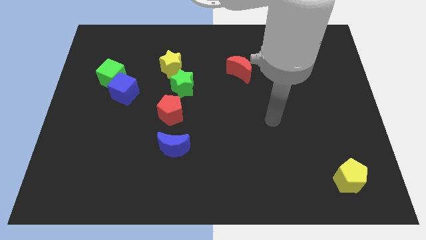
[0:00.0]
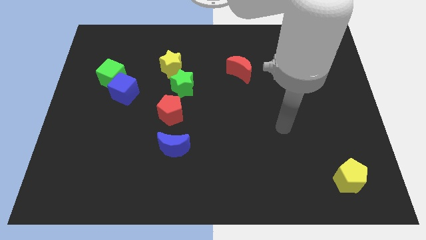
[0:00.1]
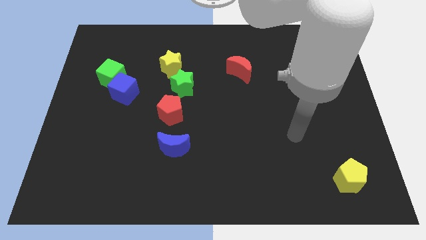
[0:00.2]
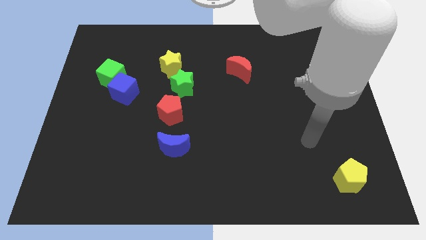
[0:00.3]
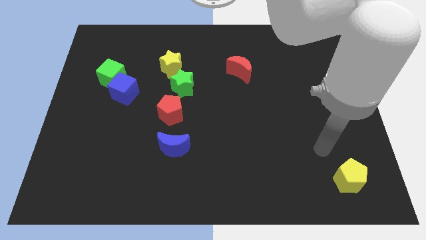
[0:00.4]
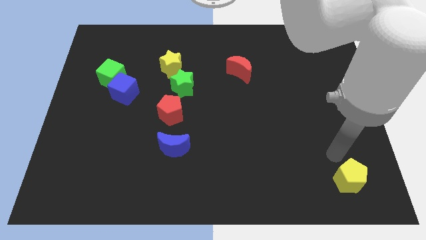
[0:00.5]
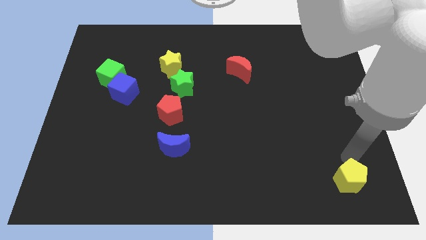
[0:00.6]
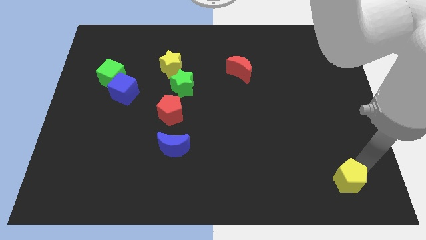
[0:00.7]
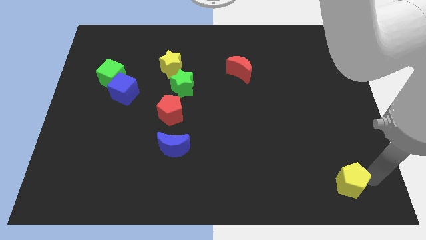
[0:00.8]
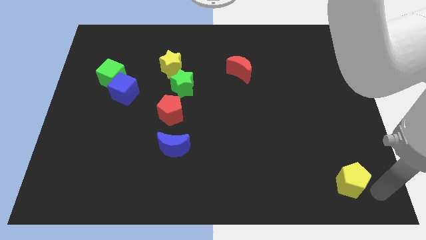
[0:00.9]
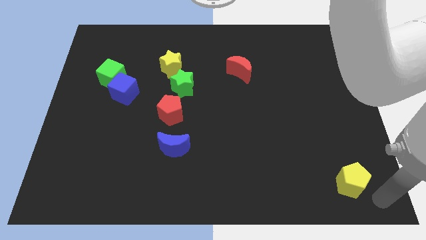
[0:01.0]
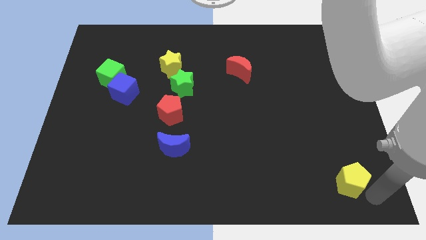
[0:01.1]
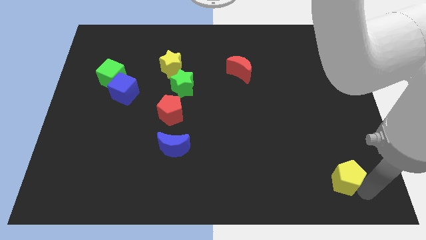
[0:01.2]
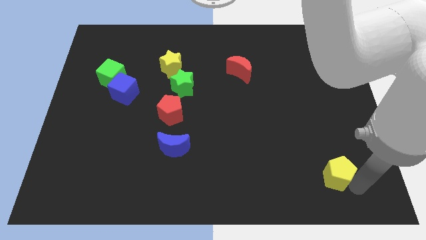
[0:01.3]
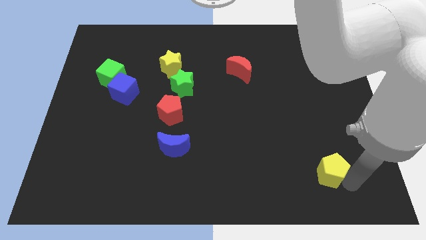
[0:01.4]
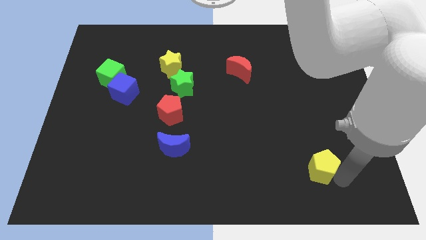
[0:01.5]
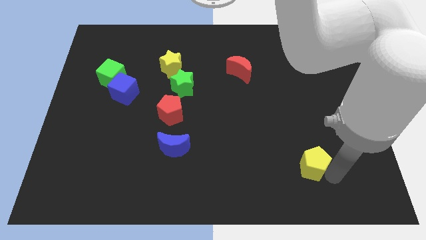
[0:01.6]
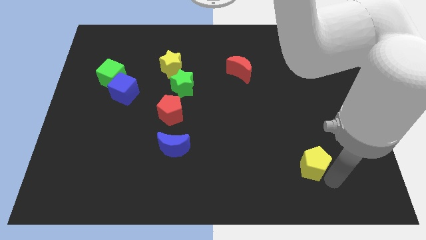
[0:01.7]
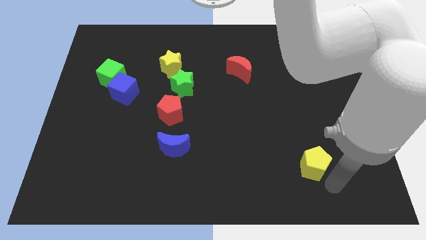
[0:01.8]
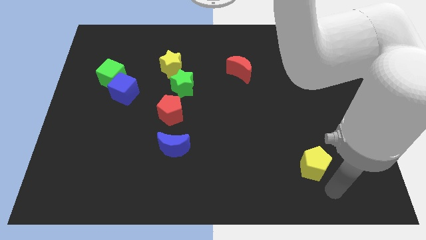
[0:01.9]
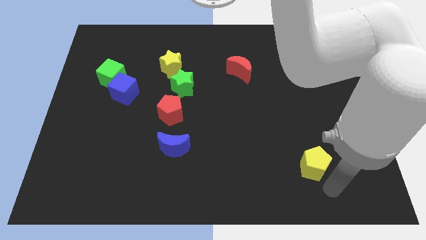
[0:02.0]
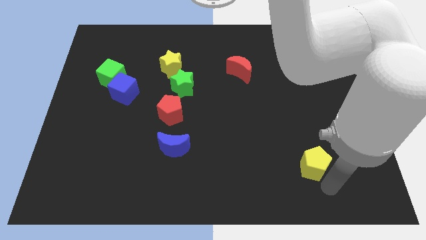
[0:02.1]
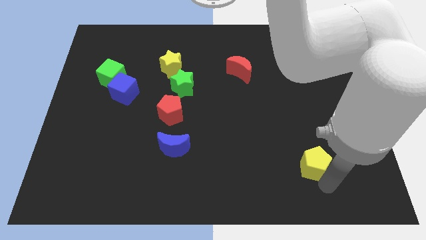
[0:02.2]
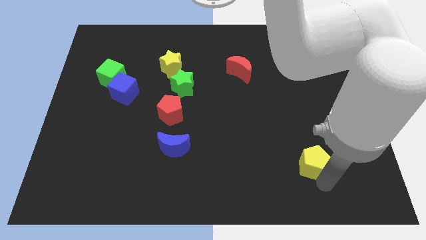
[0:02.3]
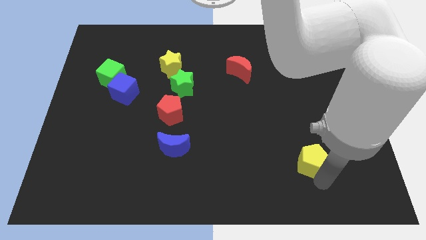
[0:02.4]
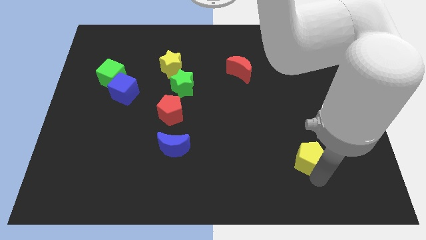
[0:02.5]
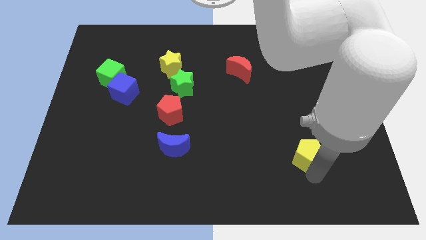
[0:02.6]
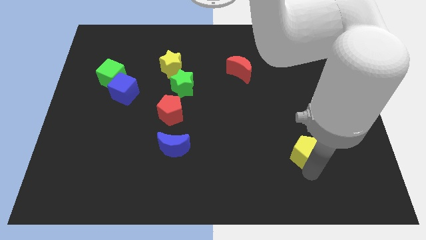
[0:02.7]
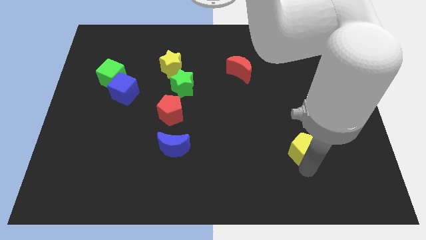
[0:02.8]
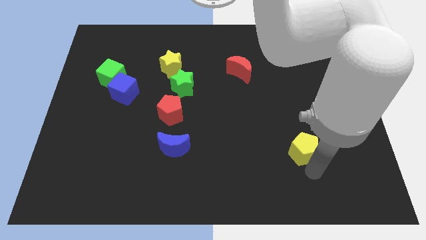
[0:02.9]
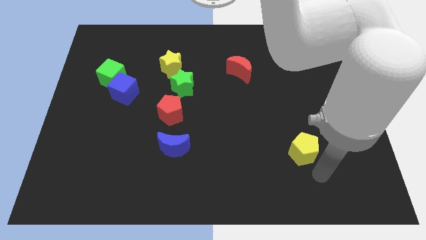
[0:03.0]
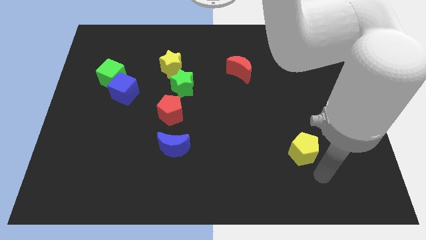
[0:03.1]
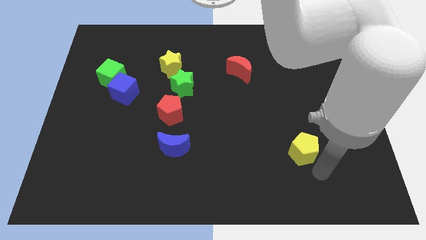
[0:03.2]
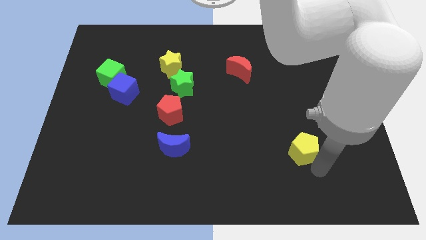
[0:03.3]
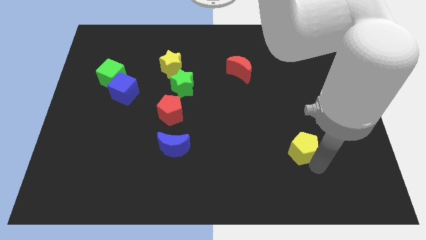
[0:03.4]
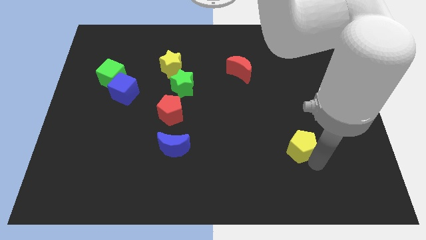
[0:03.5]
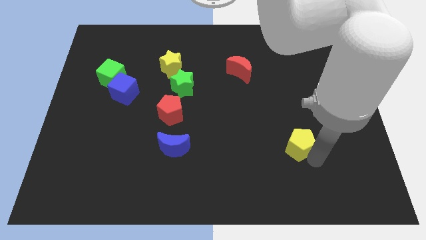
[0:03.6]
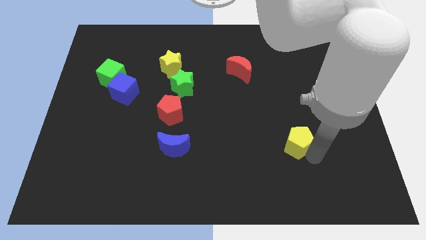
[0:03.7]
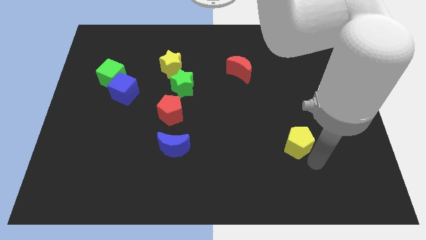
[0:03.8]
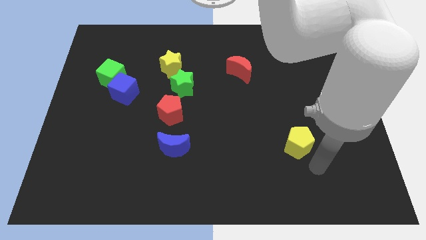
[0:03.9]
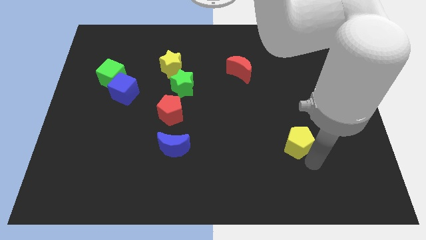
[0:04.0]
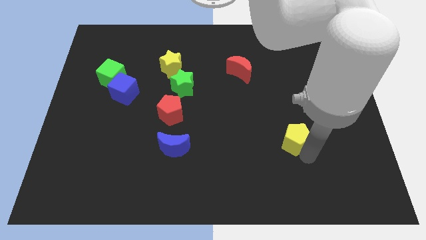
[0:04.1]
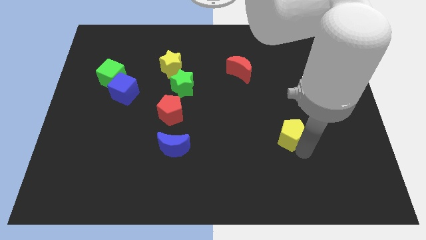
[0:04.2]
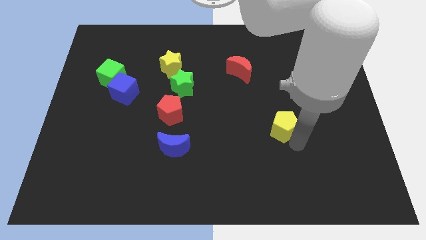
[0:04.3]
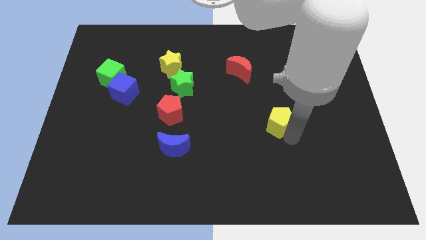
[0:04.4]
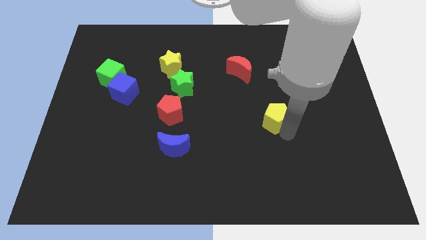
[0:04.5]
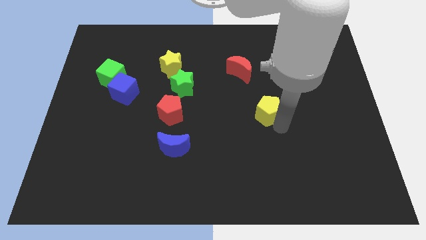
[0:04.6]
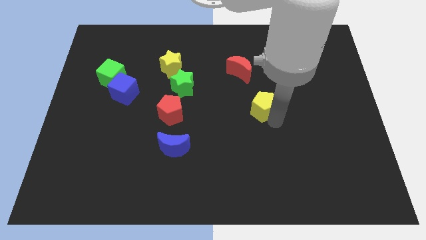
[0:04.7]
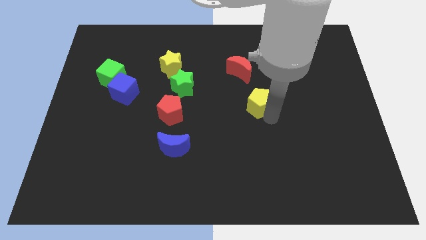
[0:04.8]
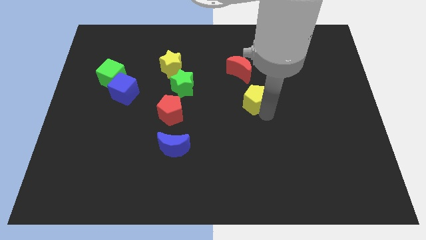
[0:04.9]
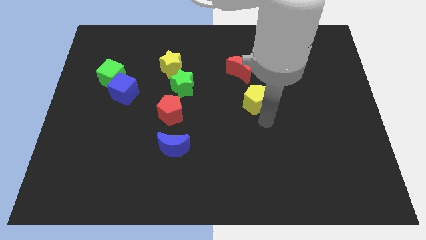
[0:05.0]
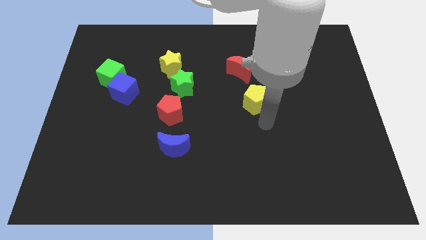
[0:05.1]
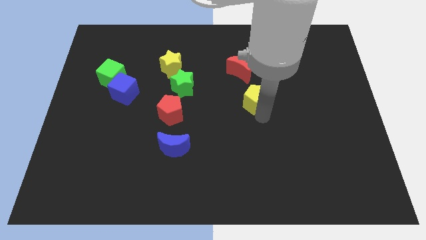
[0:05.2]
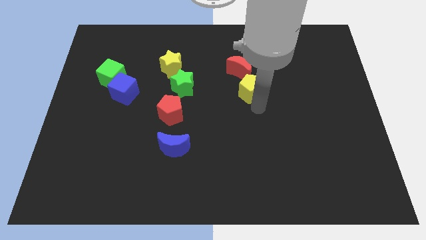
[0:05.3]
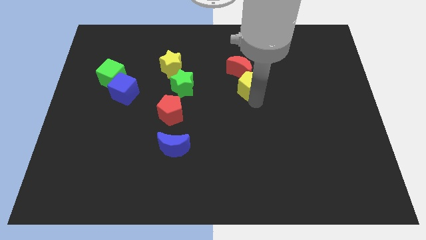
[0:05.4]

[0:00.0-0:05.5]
move the yellow pentagon to the red moon

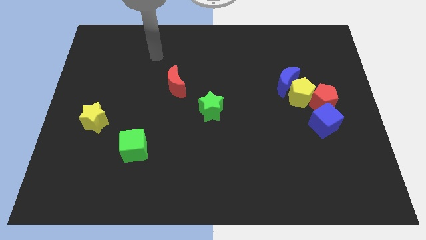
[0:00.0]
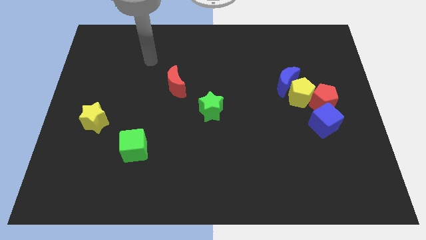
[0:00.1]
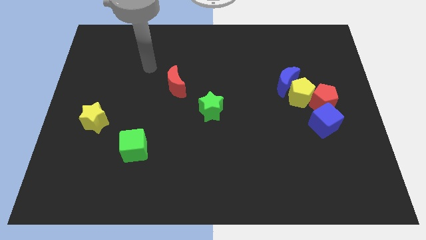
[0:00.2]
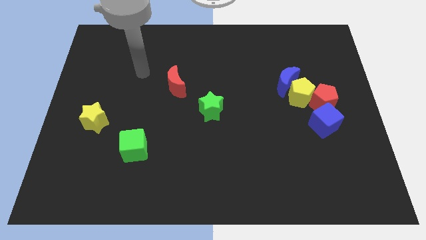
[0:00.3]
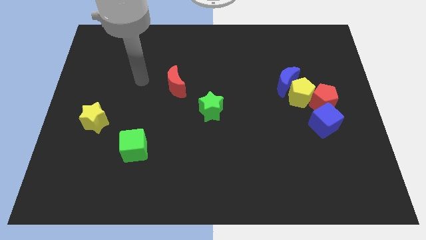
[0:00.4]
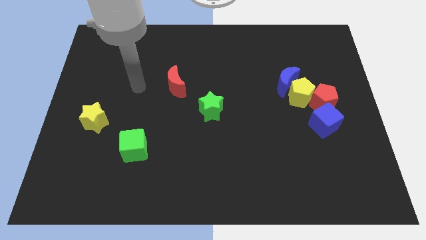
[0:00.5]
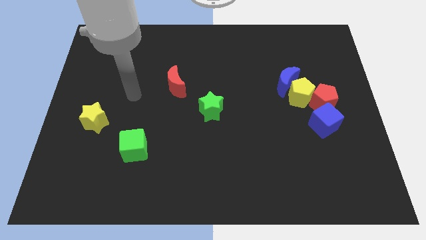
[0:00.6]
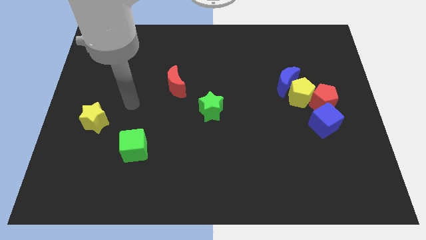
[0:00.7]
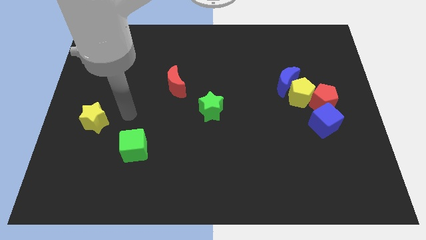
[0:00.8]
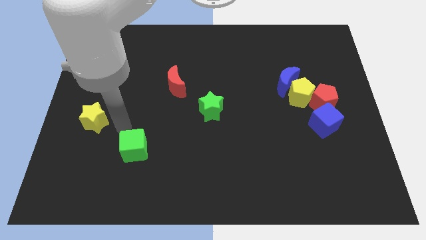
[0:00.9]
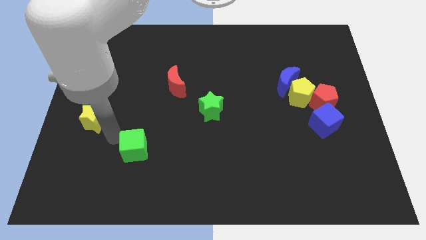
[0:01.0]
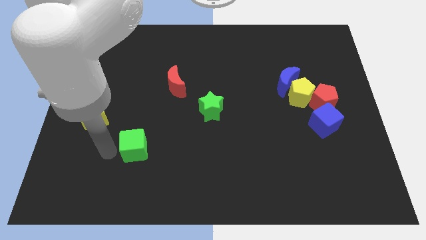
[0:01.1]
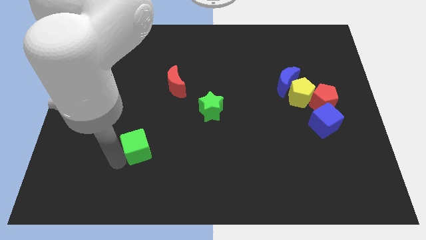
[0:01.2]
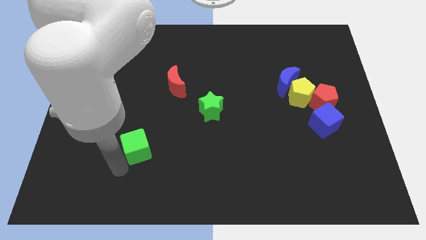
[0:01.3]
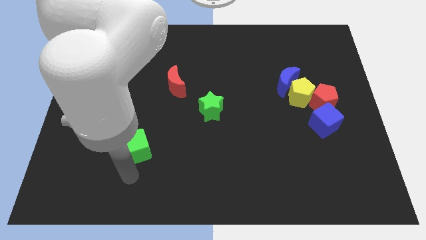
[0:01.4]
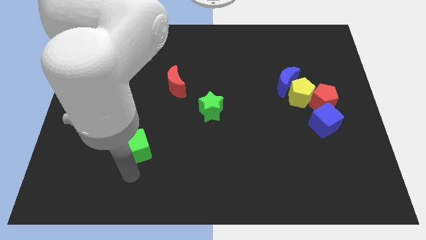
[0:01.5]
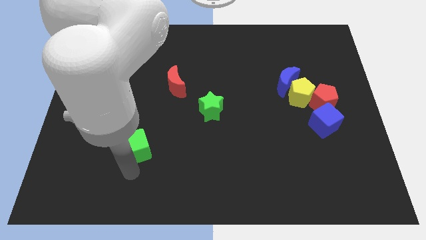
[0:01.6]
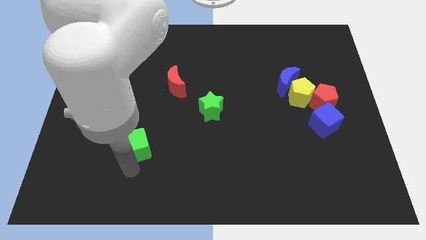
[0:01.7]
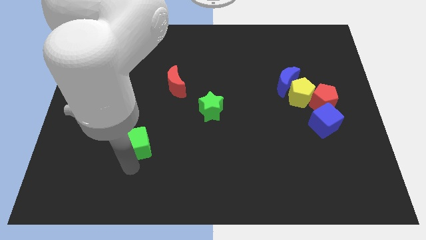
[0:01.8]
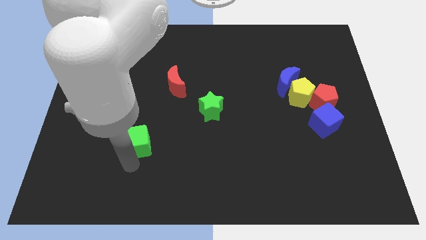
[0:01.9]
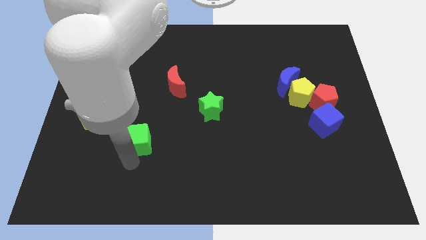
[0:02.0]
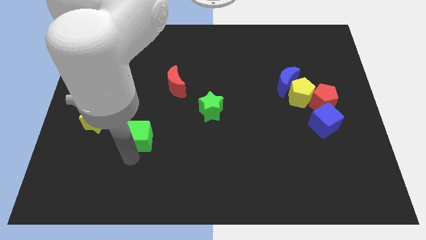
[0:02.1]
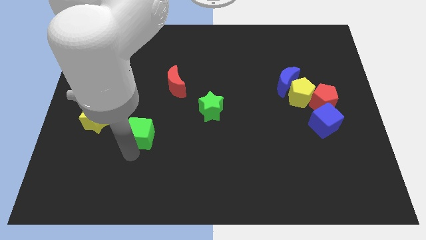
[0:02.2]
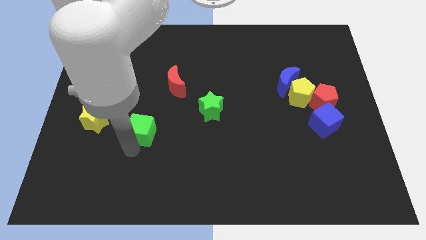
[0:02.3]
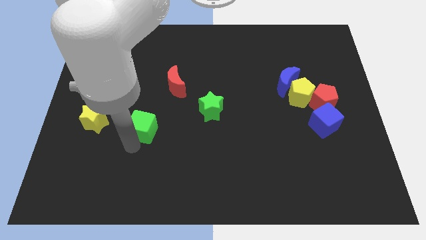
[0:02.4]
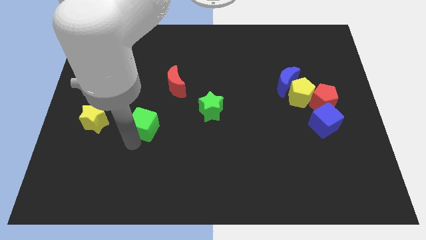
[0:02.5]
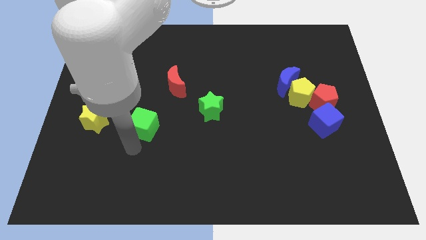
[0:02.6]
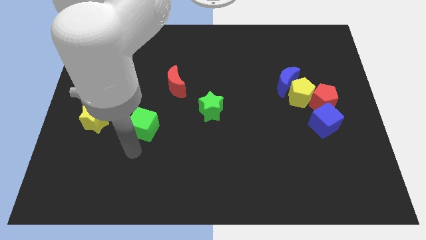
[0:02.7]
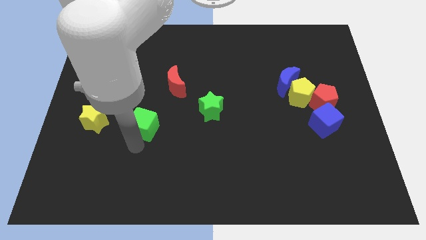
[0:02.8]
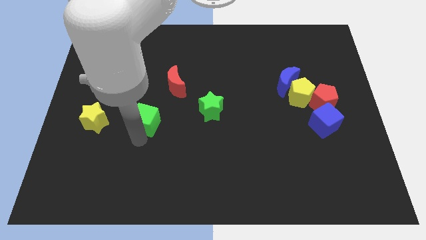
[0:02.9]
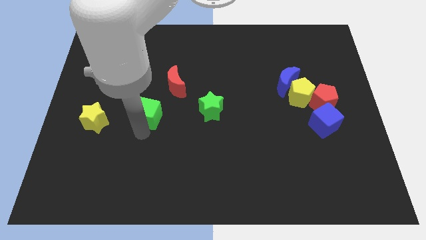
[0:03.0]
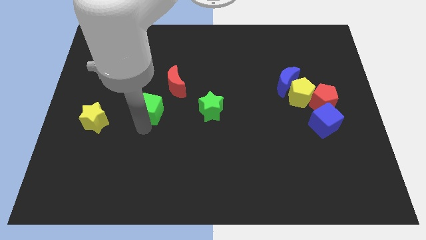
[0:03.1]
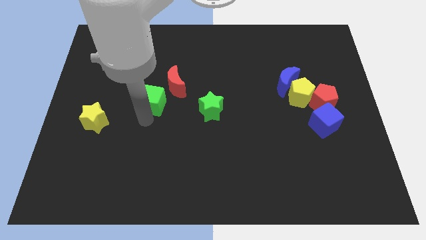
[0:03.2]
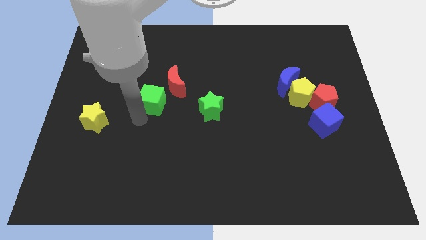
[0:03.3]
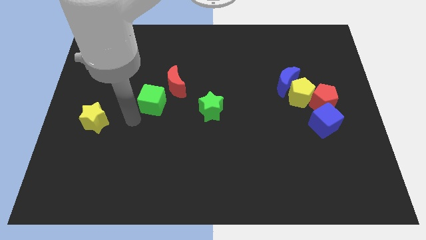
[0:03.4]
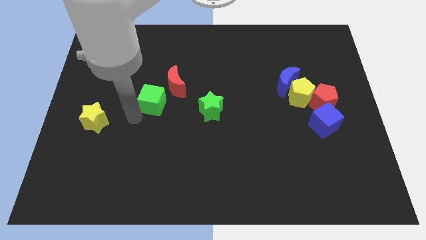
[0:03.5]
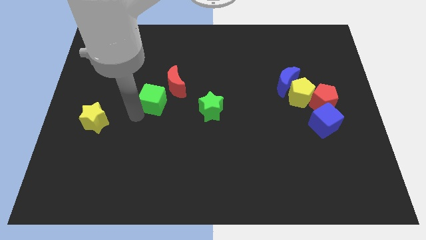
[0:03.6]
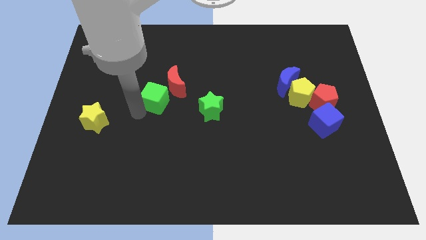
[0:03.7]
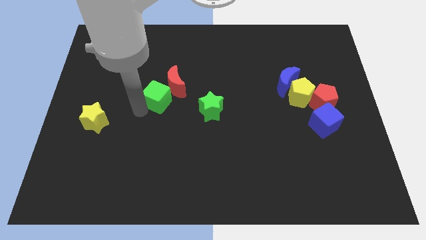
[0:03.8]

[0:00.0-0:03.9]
push the green cube to the red moon
